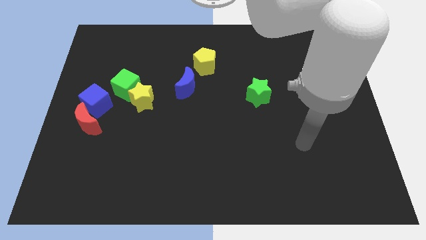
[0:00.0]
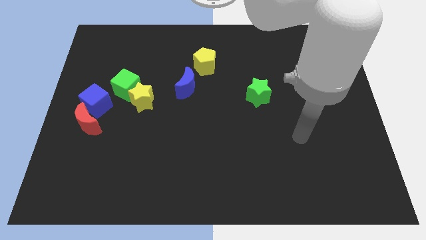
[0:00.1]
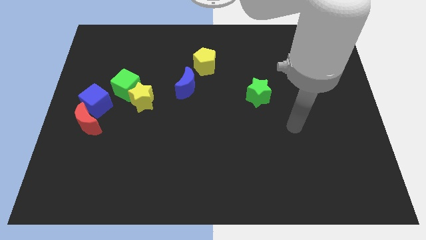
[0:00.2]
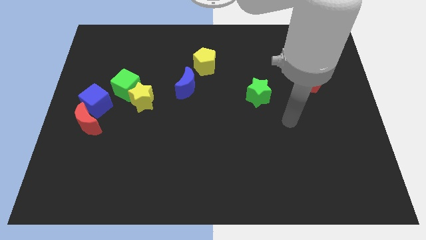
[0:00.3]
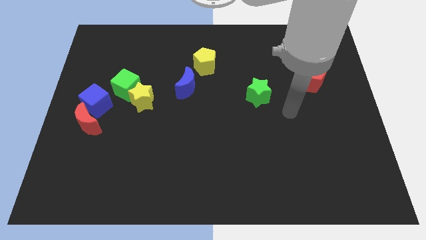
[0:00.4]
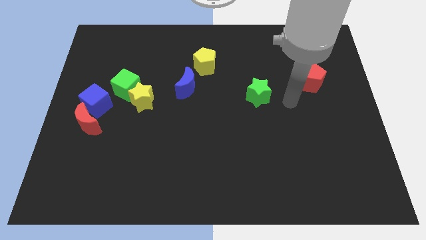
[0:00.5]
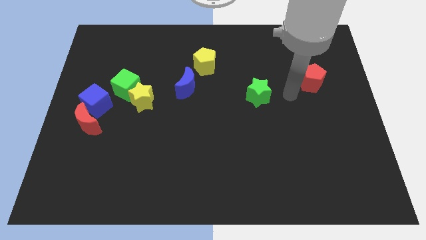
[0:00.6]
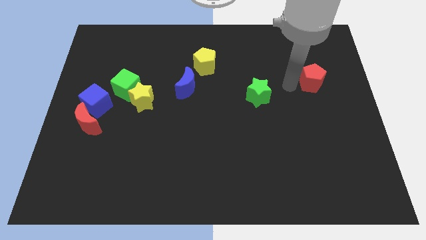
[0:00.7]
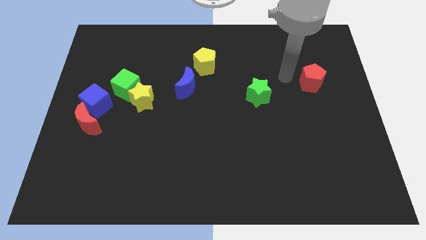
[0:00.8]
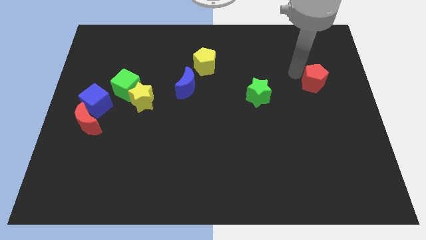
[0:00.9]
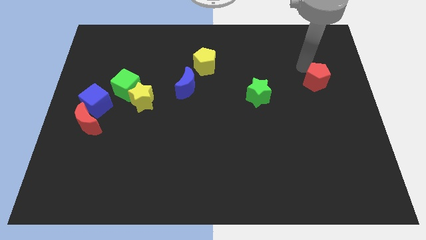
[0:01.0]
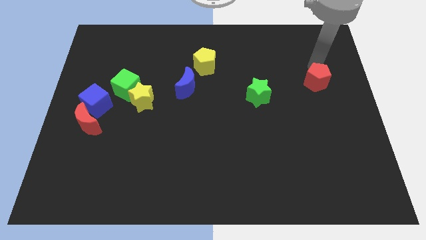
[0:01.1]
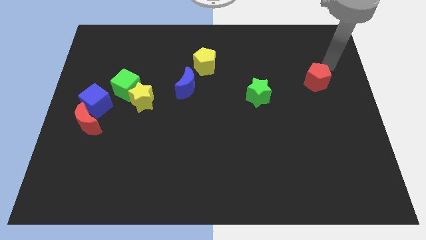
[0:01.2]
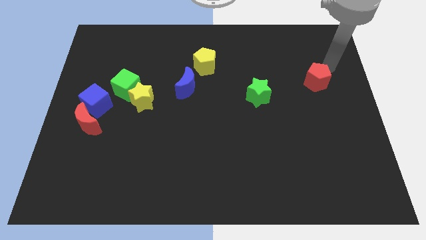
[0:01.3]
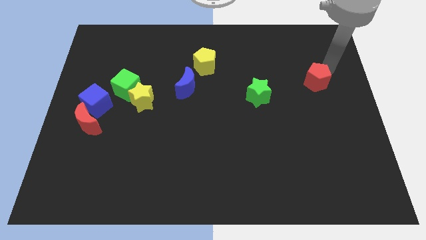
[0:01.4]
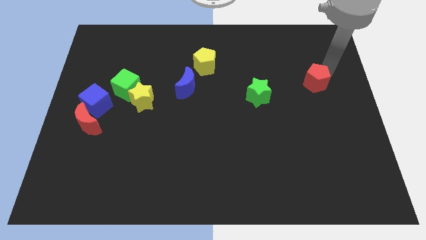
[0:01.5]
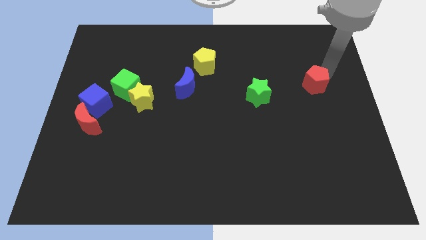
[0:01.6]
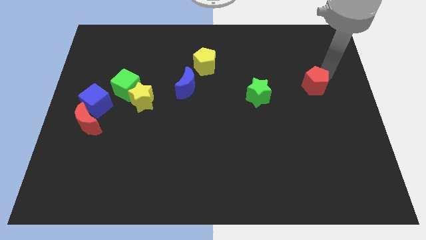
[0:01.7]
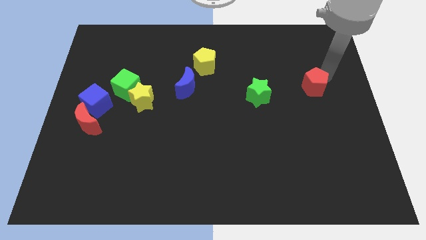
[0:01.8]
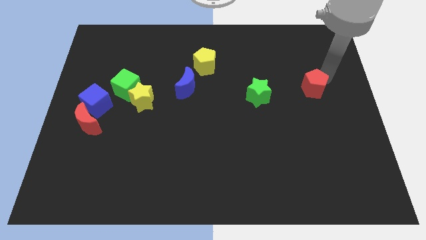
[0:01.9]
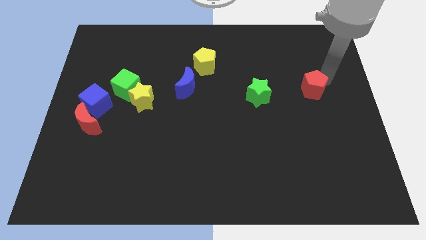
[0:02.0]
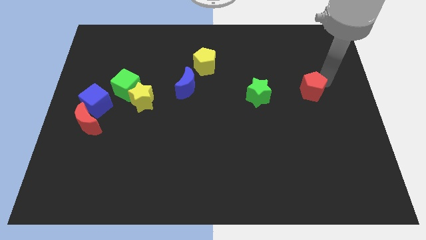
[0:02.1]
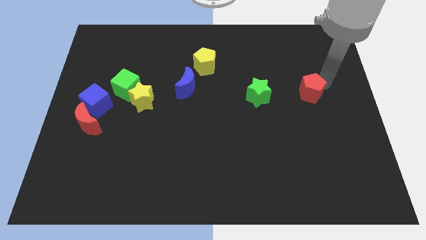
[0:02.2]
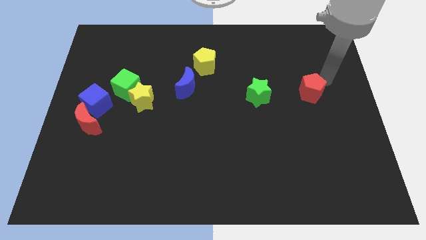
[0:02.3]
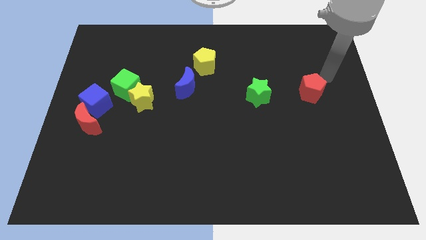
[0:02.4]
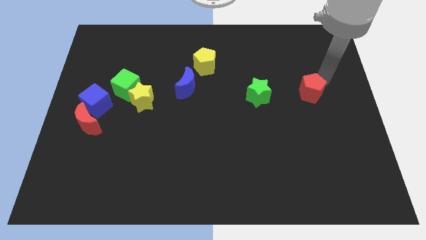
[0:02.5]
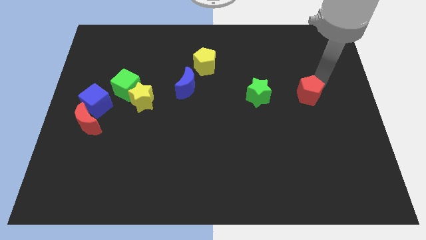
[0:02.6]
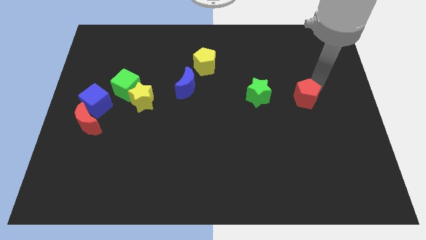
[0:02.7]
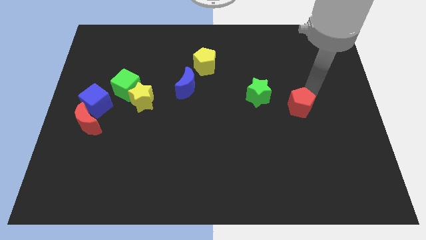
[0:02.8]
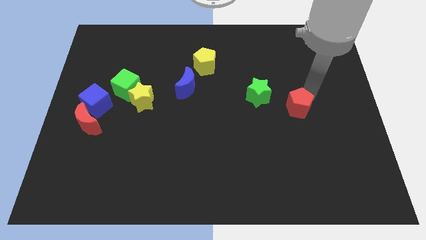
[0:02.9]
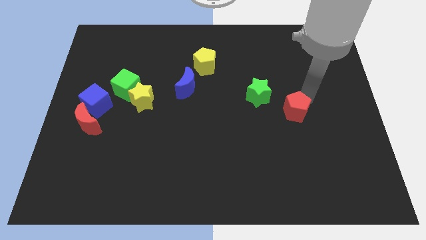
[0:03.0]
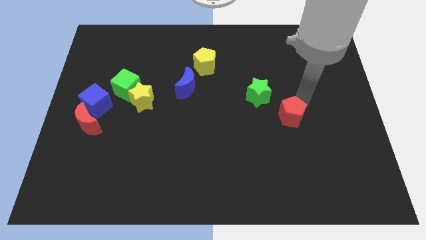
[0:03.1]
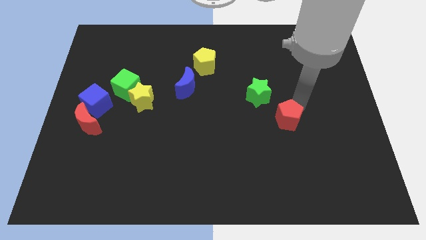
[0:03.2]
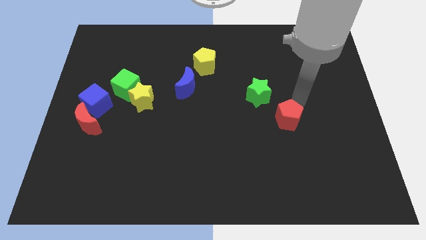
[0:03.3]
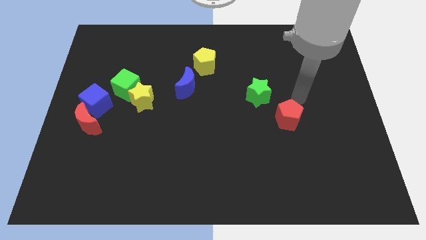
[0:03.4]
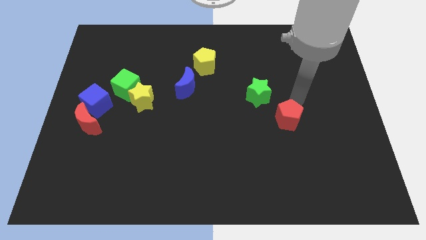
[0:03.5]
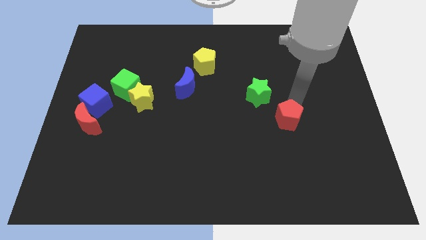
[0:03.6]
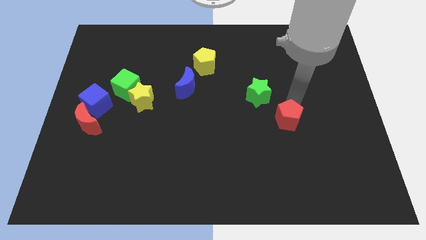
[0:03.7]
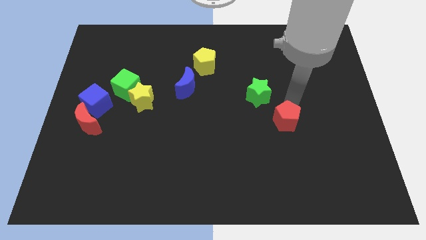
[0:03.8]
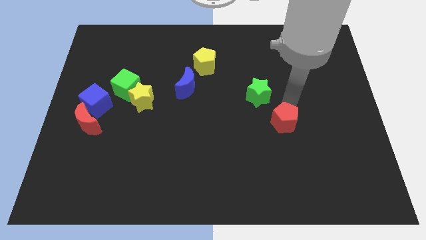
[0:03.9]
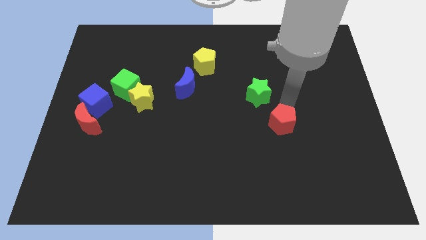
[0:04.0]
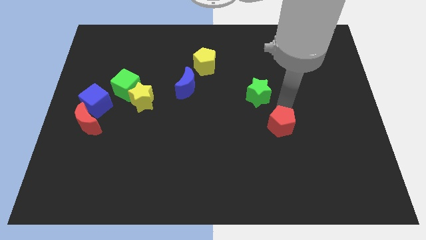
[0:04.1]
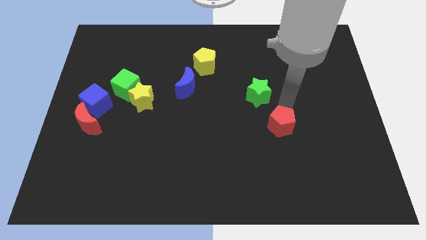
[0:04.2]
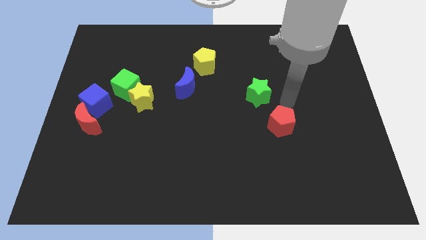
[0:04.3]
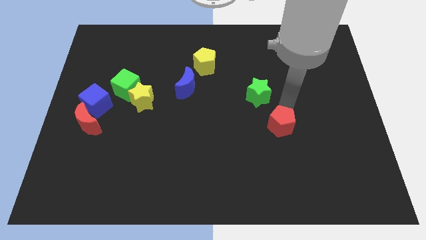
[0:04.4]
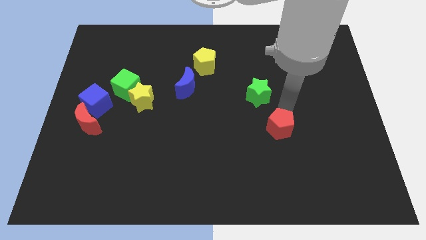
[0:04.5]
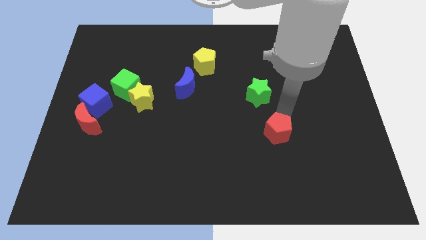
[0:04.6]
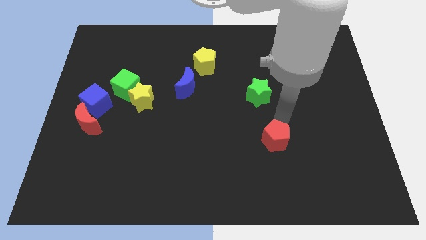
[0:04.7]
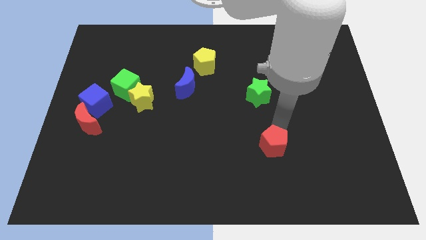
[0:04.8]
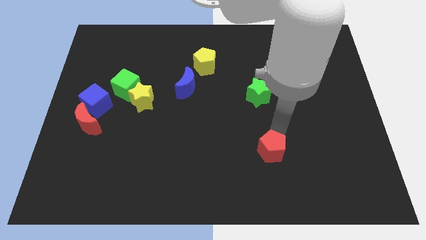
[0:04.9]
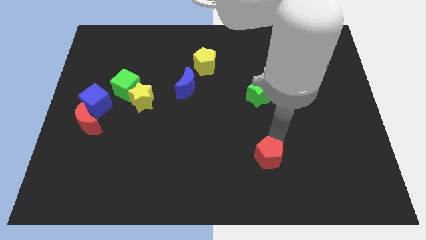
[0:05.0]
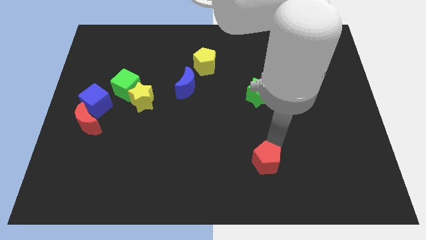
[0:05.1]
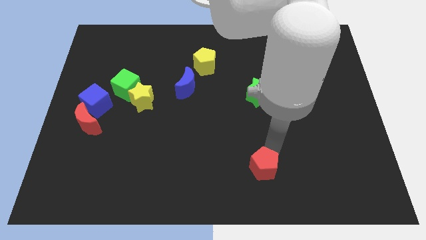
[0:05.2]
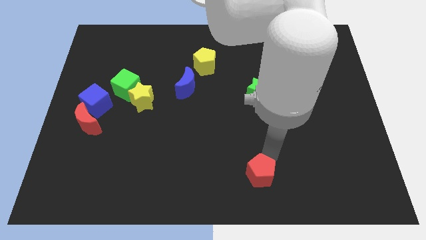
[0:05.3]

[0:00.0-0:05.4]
push the red pentagon to the bottom side

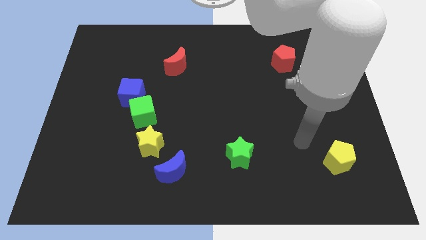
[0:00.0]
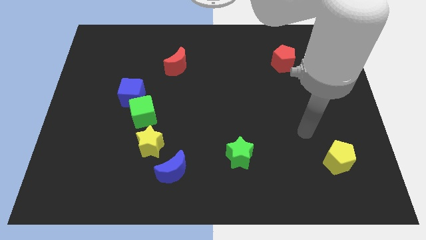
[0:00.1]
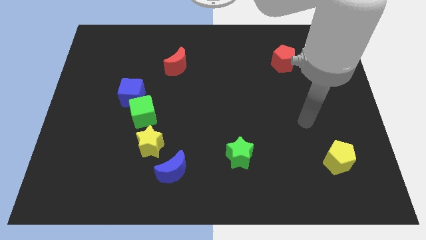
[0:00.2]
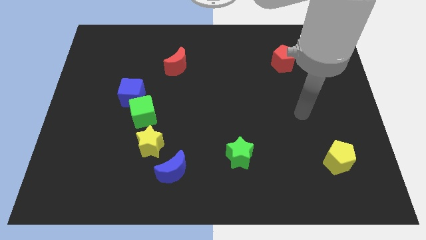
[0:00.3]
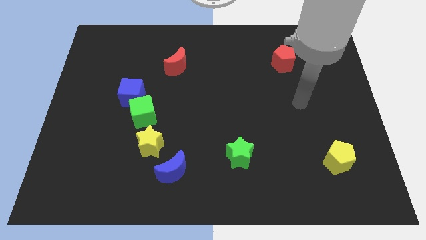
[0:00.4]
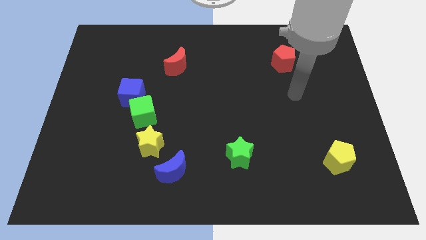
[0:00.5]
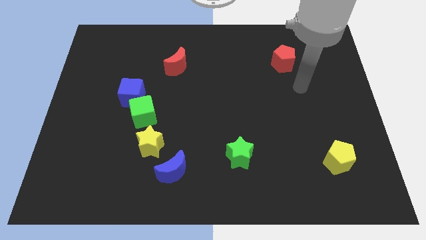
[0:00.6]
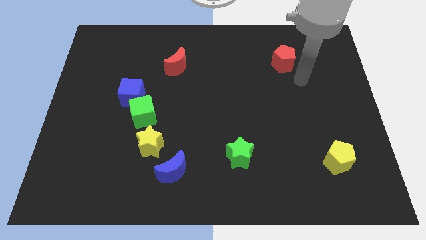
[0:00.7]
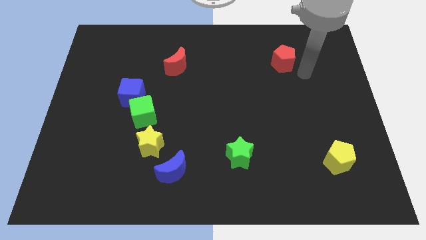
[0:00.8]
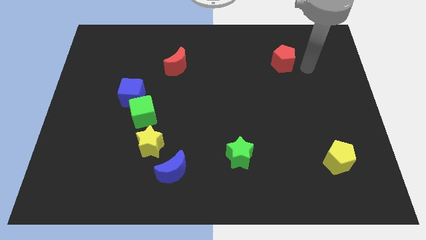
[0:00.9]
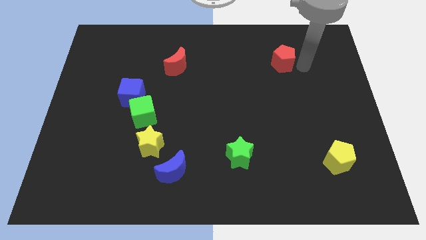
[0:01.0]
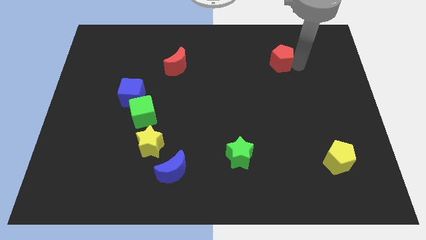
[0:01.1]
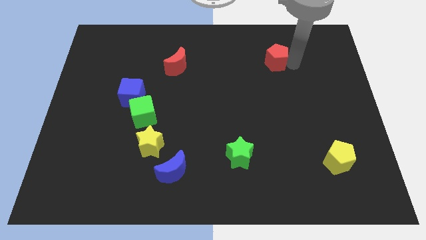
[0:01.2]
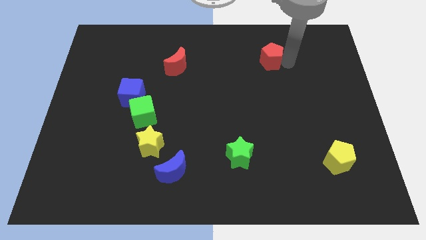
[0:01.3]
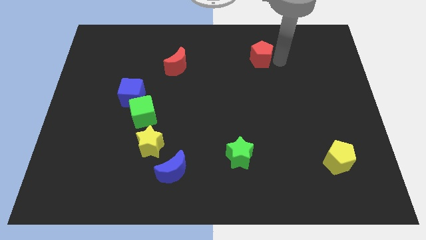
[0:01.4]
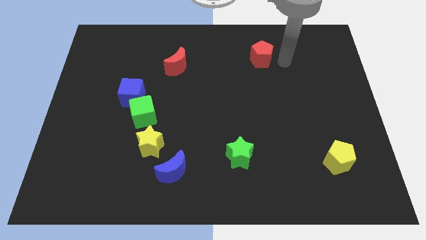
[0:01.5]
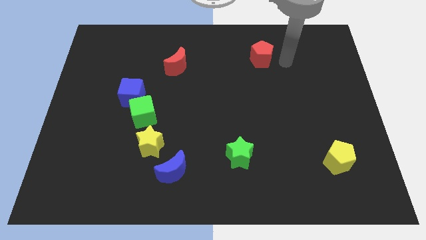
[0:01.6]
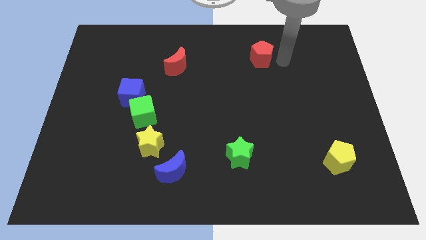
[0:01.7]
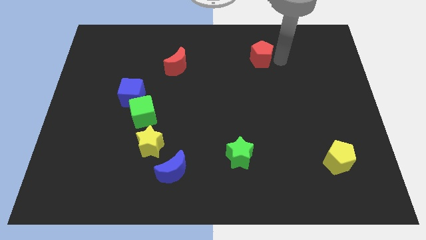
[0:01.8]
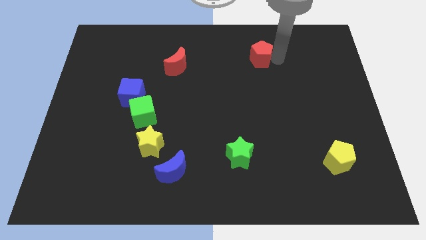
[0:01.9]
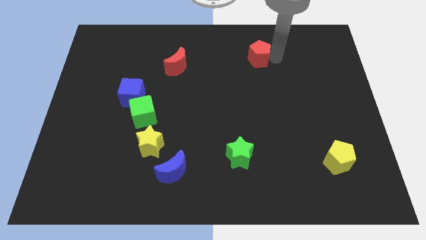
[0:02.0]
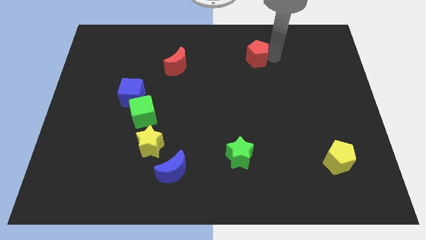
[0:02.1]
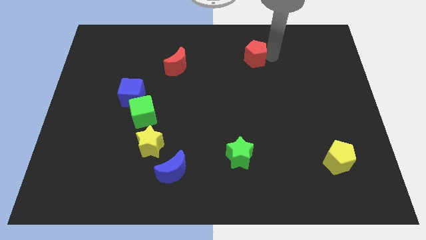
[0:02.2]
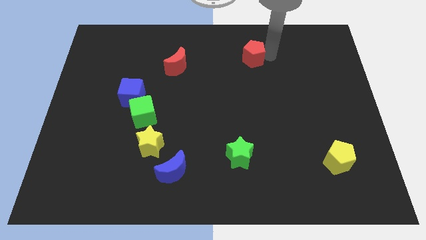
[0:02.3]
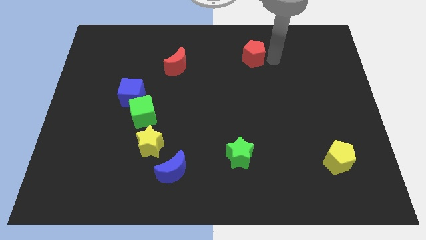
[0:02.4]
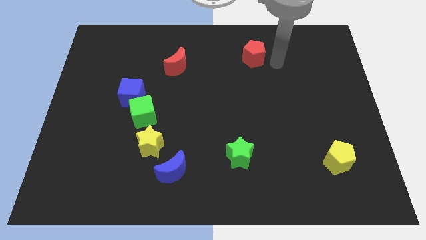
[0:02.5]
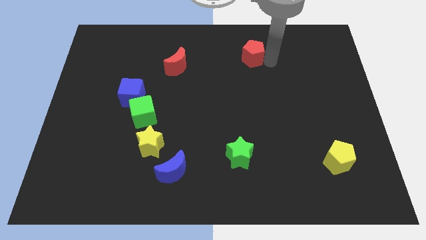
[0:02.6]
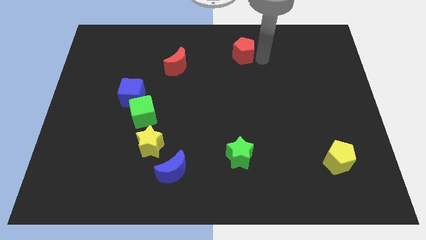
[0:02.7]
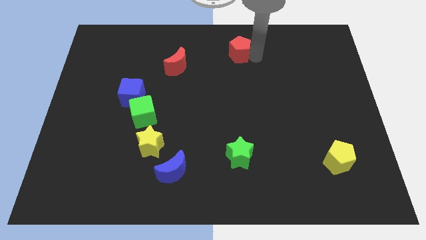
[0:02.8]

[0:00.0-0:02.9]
slide the red pentagon to the top
